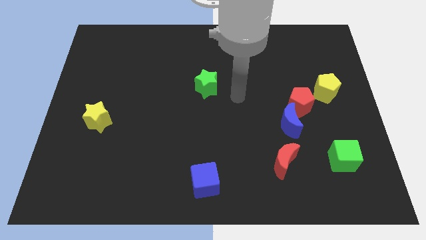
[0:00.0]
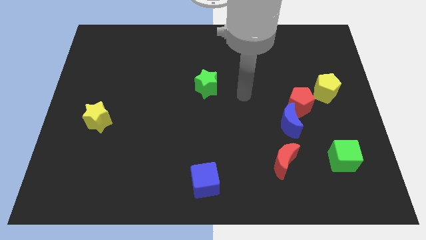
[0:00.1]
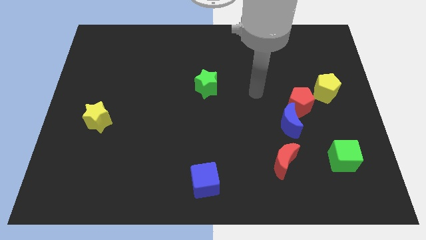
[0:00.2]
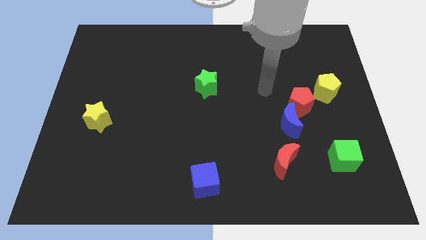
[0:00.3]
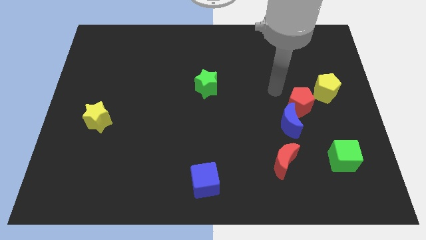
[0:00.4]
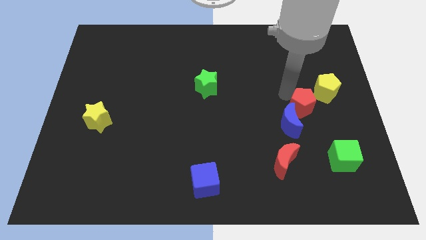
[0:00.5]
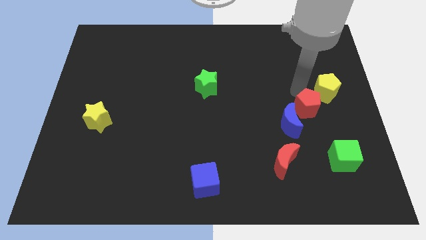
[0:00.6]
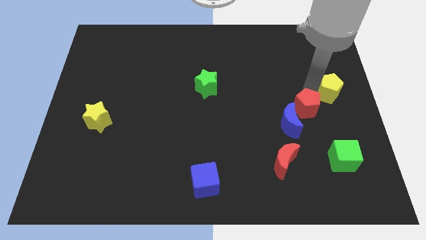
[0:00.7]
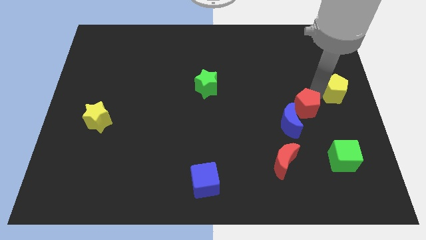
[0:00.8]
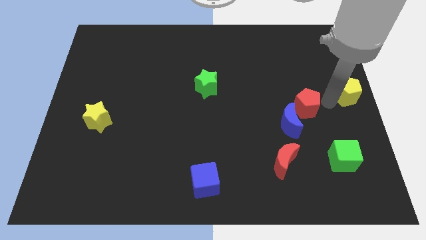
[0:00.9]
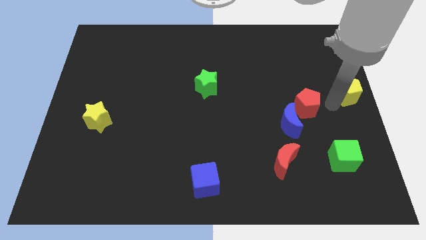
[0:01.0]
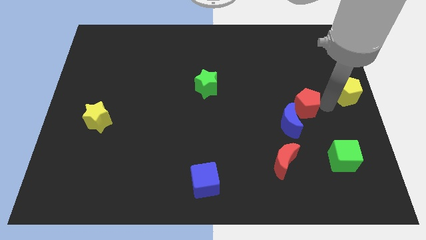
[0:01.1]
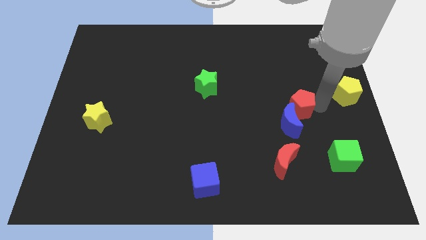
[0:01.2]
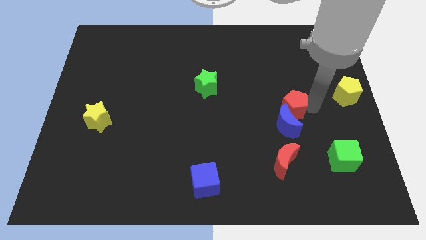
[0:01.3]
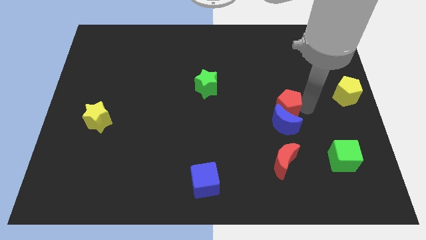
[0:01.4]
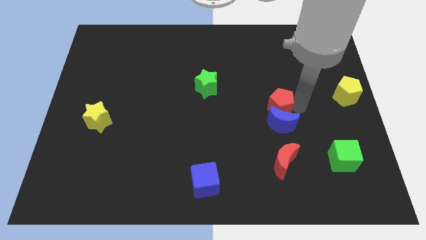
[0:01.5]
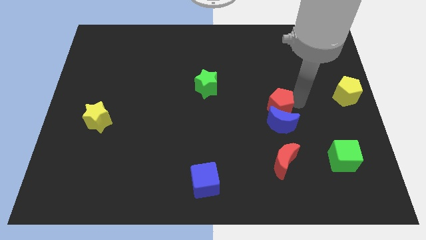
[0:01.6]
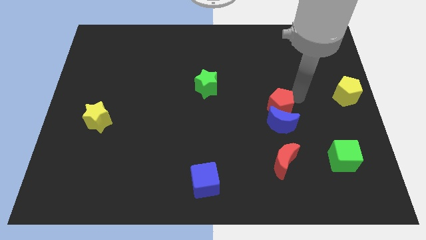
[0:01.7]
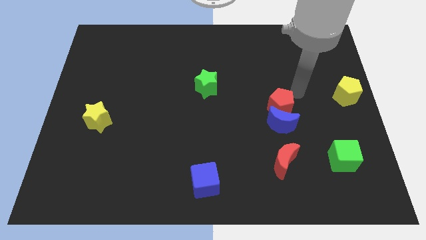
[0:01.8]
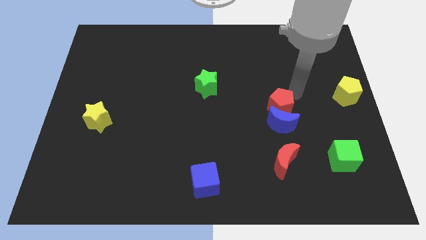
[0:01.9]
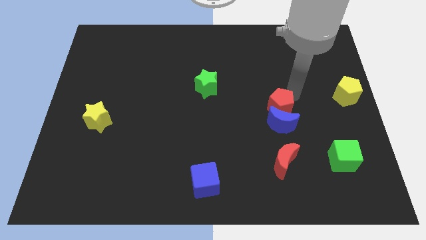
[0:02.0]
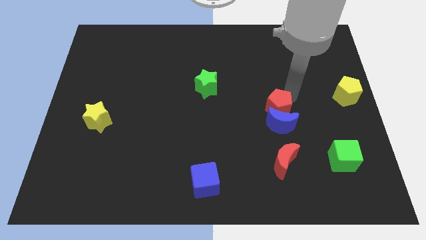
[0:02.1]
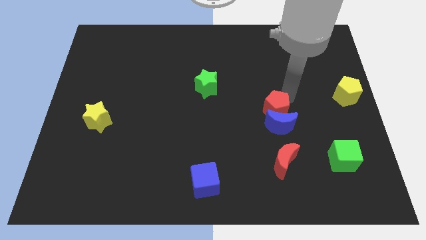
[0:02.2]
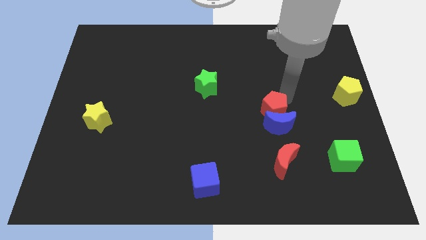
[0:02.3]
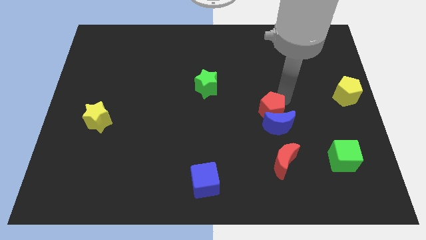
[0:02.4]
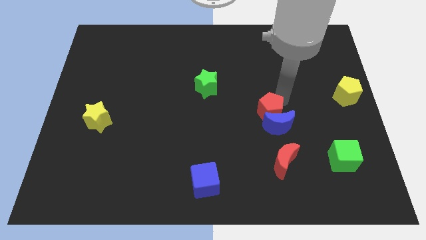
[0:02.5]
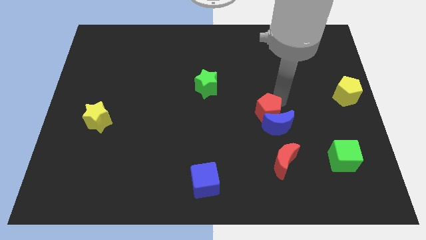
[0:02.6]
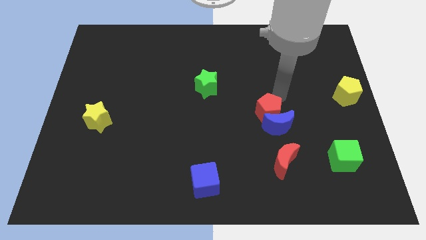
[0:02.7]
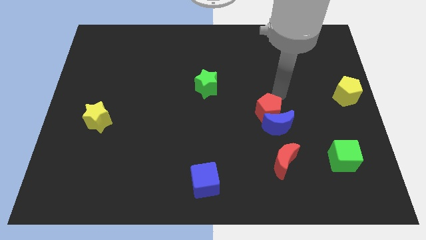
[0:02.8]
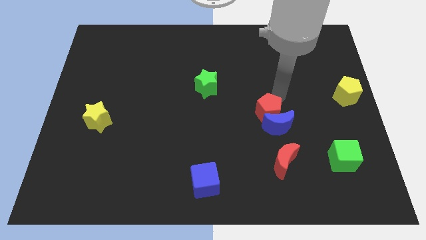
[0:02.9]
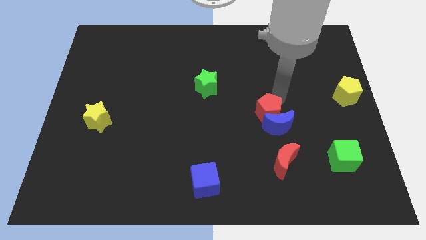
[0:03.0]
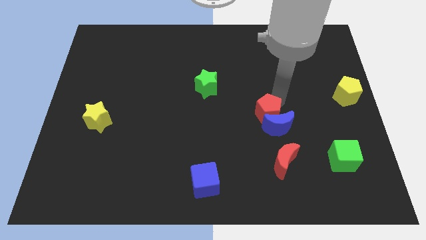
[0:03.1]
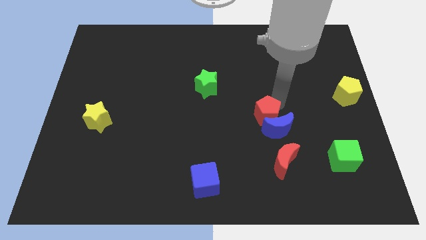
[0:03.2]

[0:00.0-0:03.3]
slightly move the red pentagon down and to the left diagonally

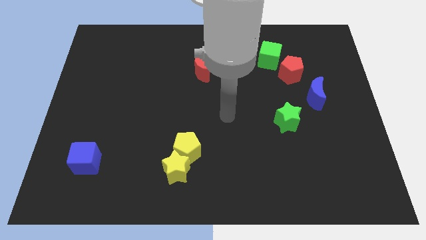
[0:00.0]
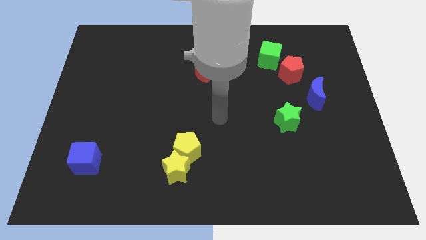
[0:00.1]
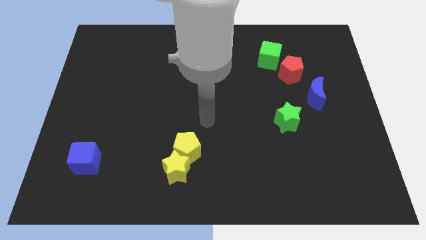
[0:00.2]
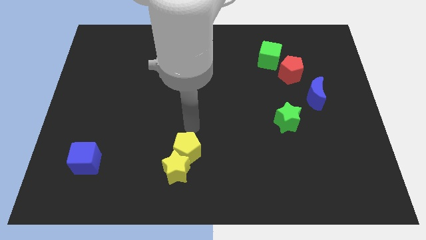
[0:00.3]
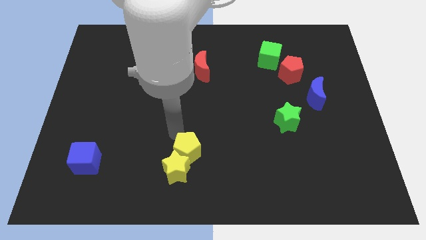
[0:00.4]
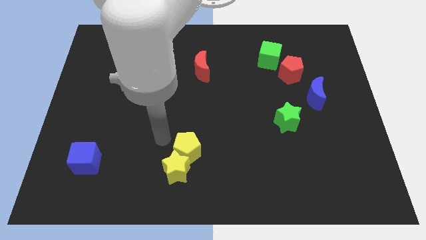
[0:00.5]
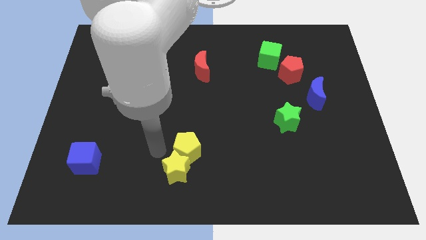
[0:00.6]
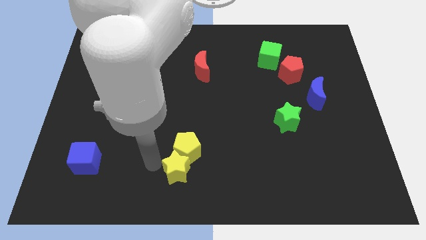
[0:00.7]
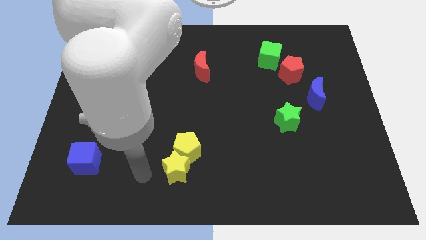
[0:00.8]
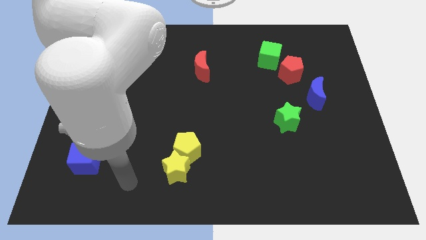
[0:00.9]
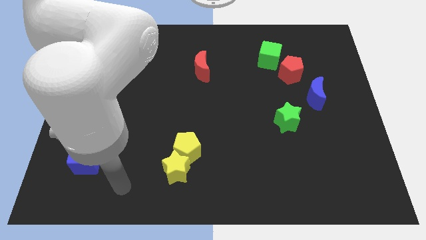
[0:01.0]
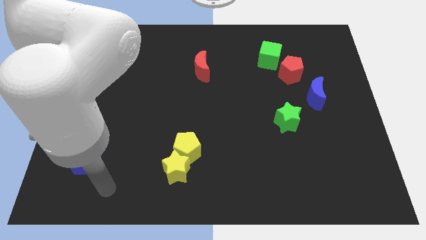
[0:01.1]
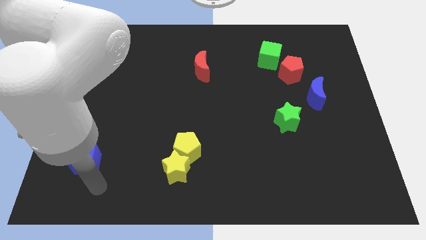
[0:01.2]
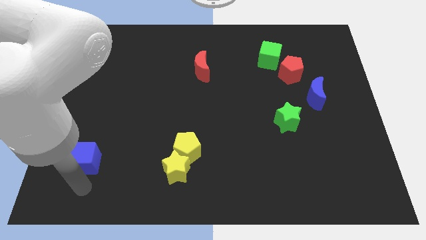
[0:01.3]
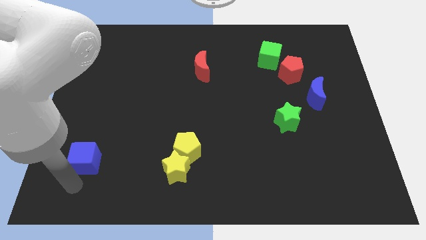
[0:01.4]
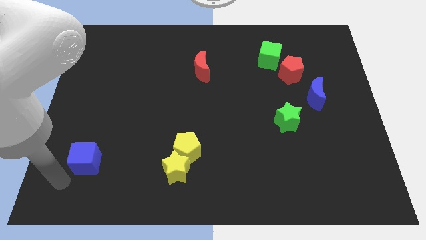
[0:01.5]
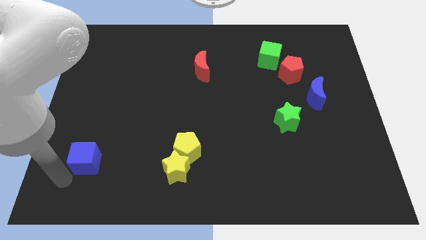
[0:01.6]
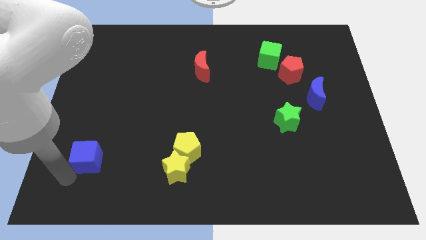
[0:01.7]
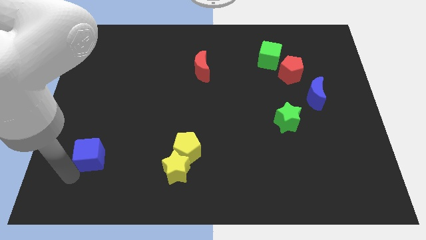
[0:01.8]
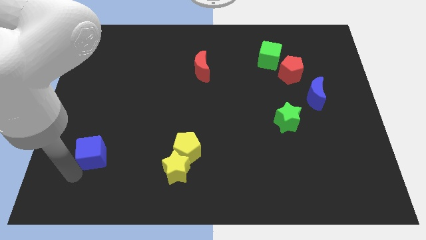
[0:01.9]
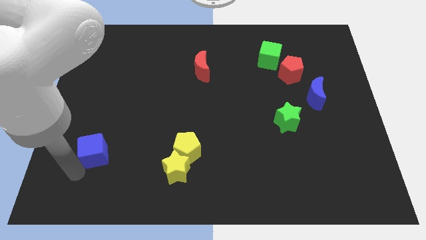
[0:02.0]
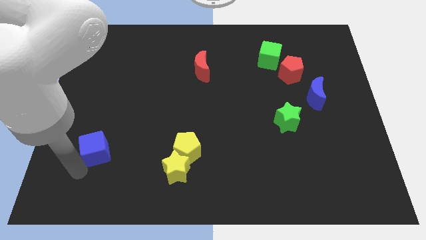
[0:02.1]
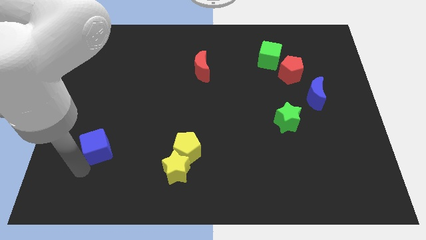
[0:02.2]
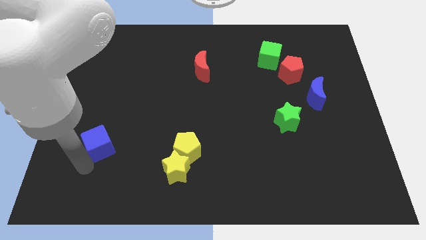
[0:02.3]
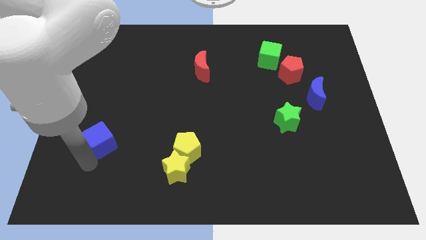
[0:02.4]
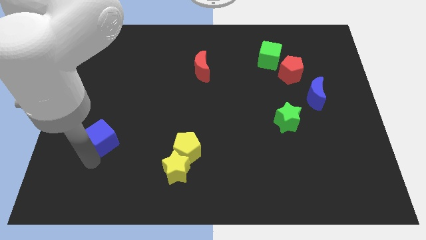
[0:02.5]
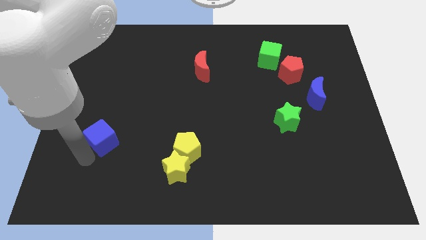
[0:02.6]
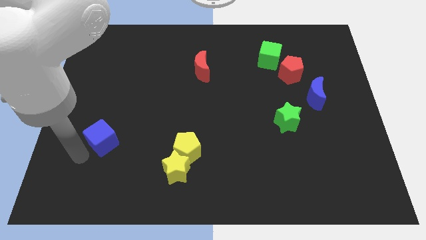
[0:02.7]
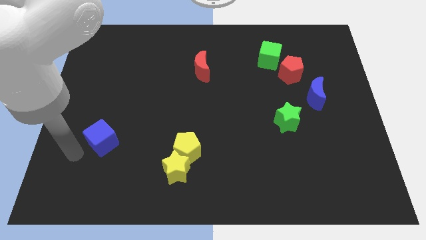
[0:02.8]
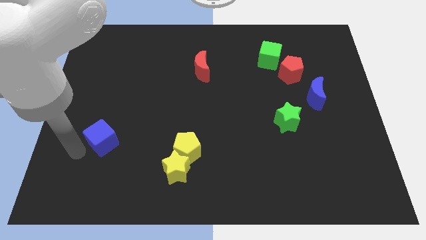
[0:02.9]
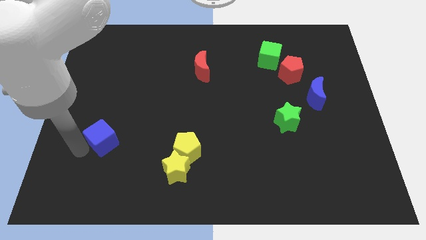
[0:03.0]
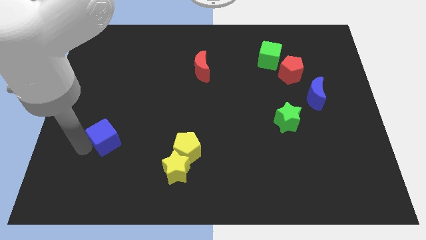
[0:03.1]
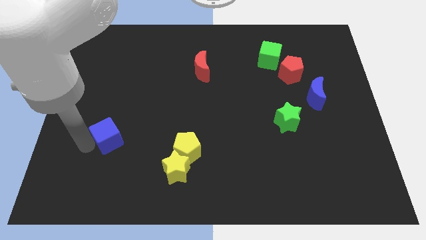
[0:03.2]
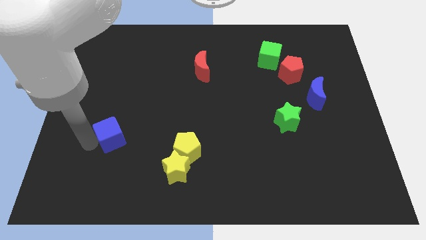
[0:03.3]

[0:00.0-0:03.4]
slightly move the blue cube upwards and to the right

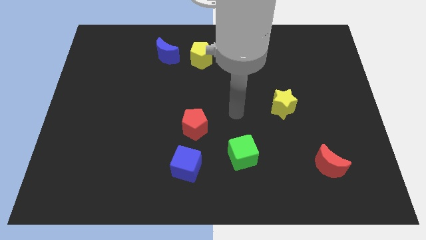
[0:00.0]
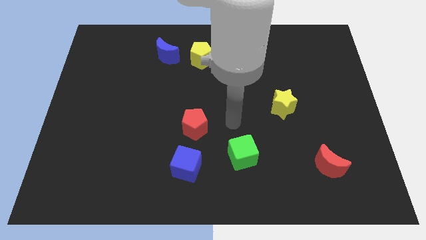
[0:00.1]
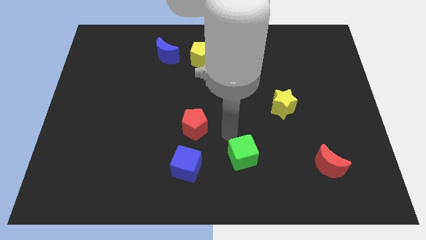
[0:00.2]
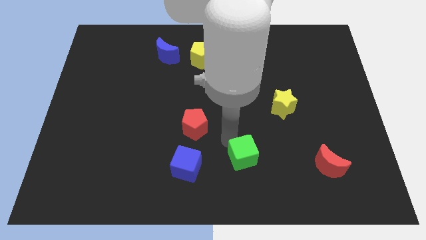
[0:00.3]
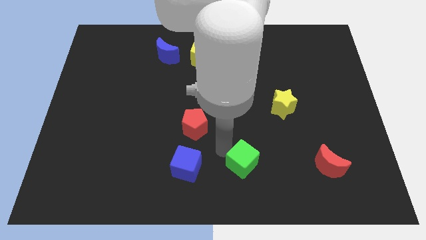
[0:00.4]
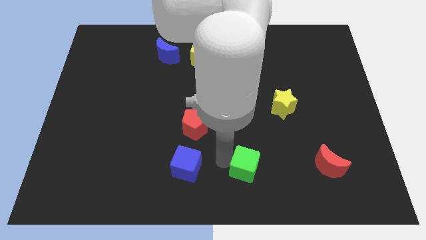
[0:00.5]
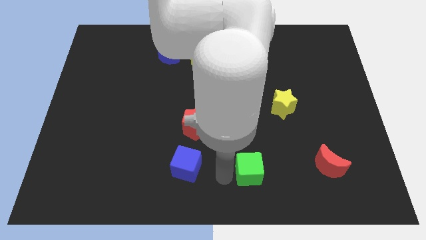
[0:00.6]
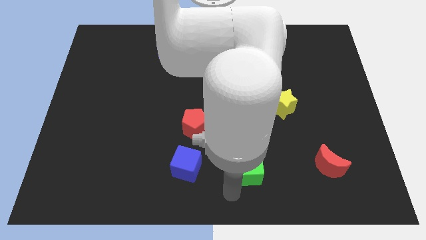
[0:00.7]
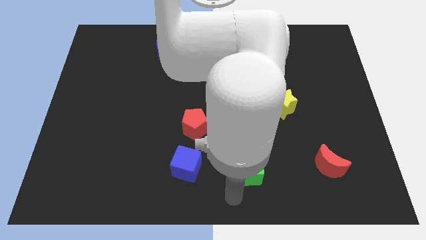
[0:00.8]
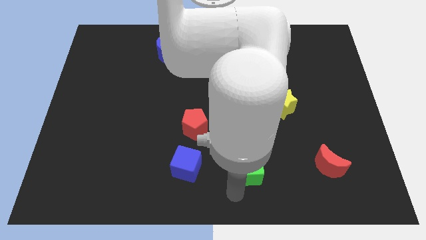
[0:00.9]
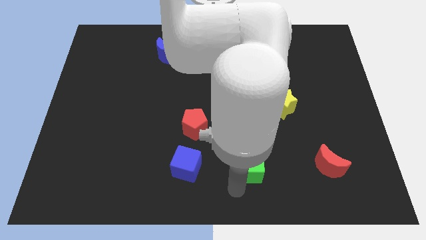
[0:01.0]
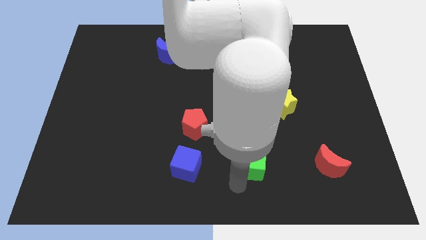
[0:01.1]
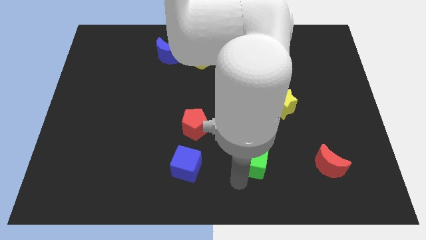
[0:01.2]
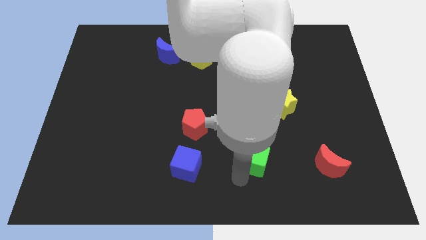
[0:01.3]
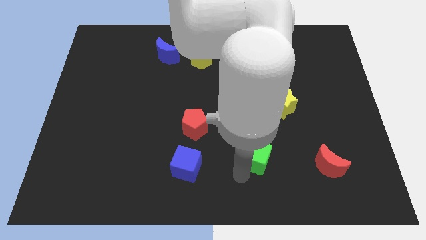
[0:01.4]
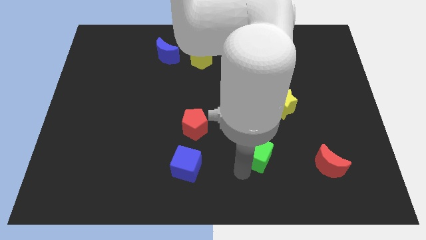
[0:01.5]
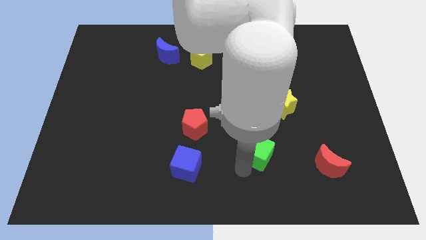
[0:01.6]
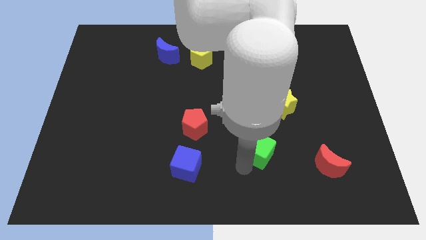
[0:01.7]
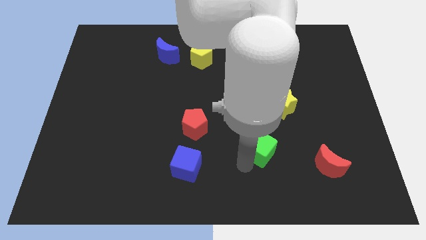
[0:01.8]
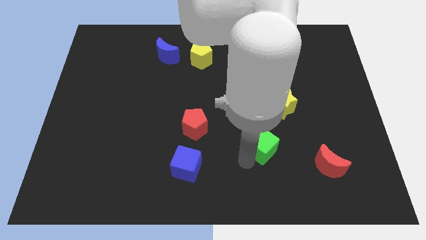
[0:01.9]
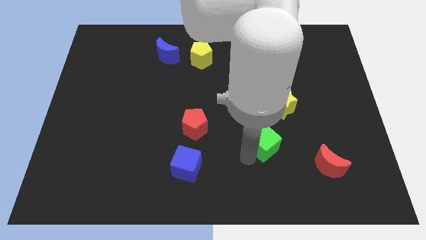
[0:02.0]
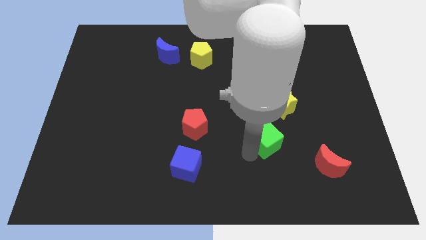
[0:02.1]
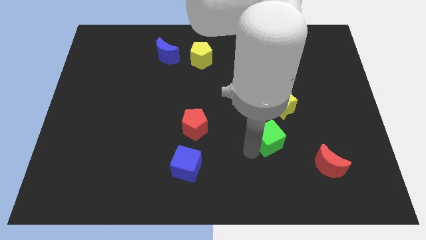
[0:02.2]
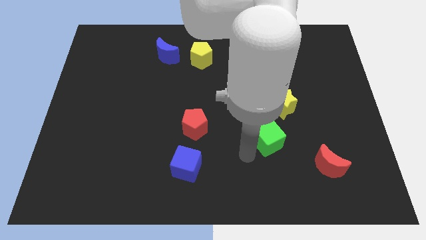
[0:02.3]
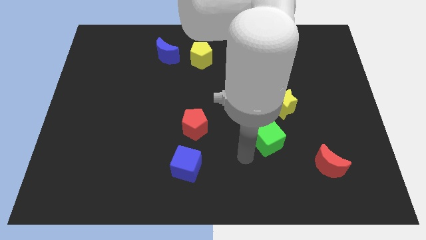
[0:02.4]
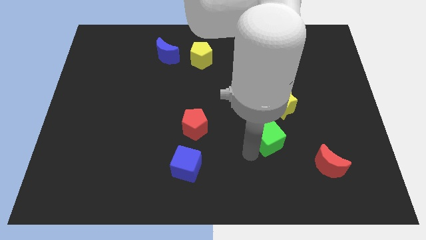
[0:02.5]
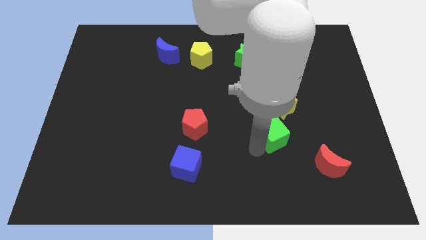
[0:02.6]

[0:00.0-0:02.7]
slightly slide the green cube up and to the right diagonally
